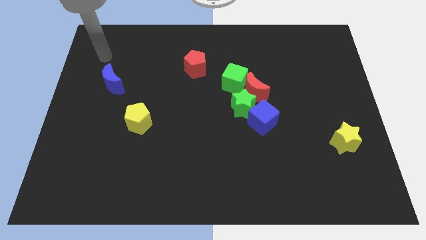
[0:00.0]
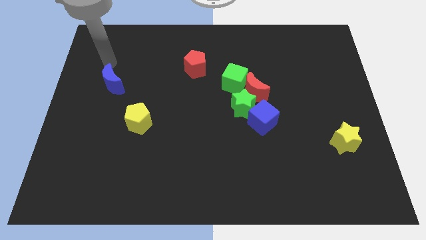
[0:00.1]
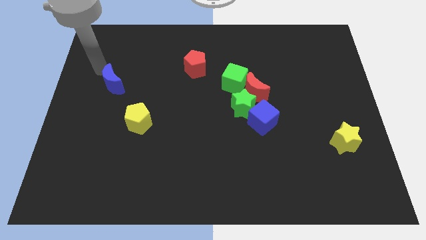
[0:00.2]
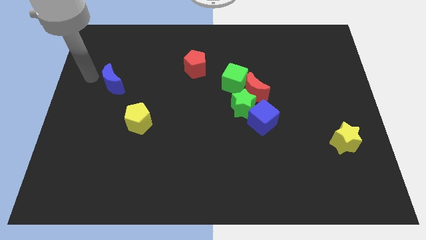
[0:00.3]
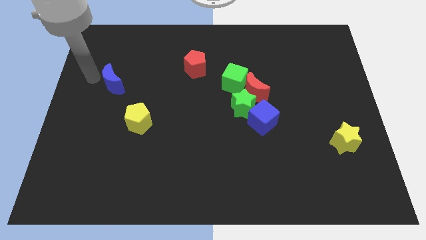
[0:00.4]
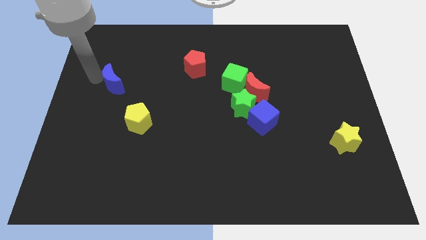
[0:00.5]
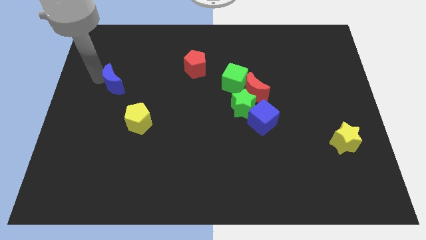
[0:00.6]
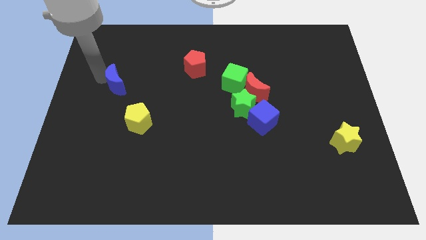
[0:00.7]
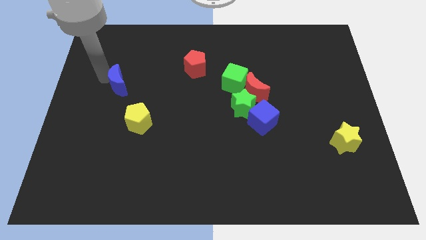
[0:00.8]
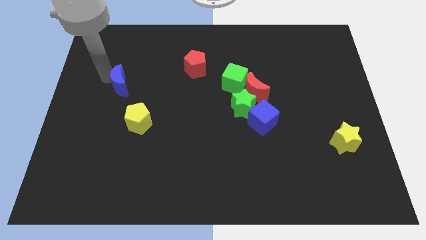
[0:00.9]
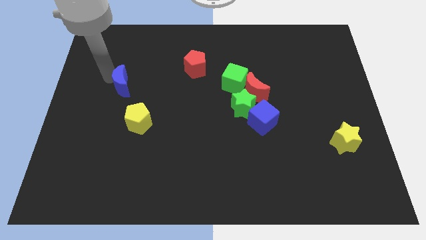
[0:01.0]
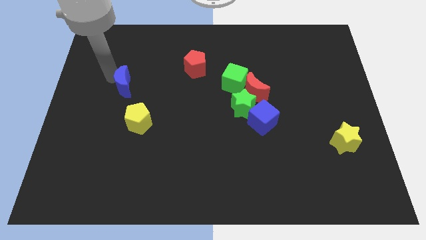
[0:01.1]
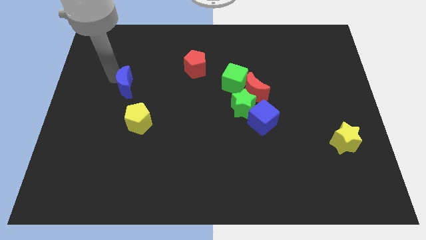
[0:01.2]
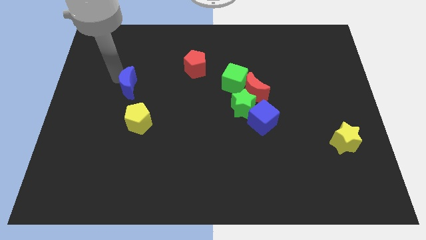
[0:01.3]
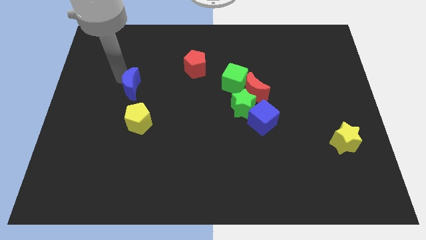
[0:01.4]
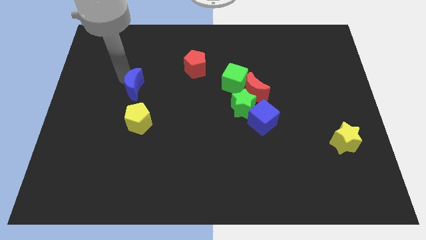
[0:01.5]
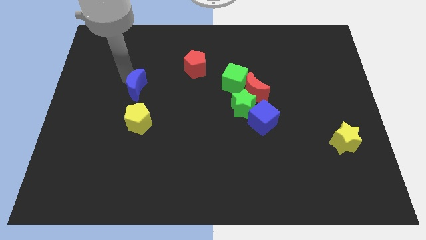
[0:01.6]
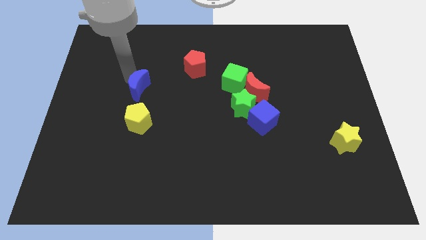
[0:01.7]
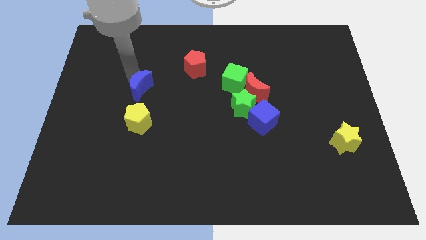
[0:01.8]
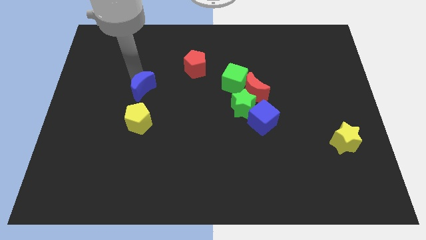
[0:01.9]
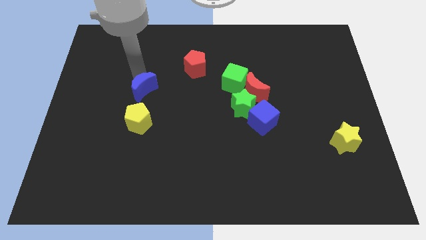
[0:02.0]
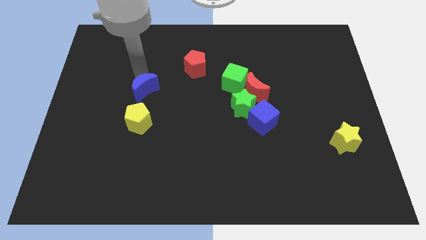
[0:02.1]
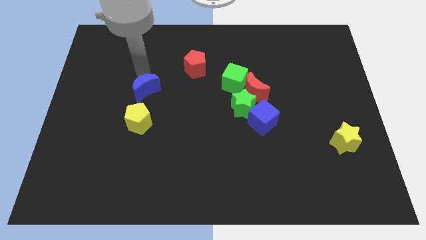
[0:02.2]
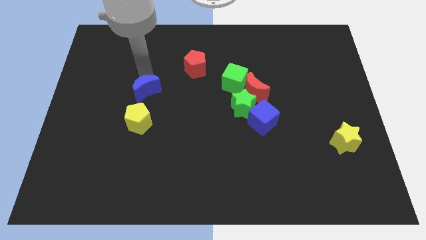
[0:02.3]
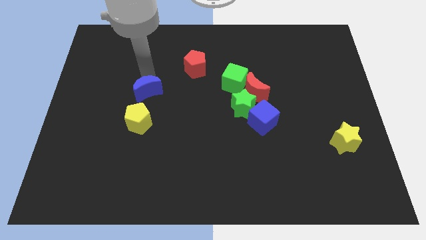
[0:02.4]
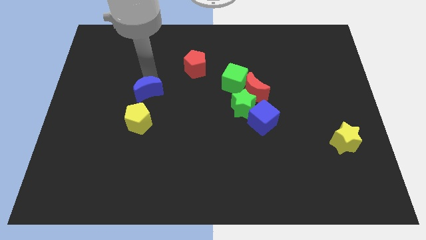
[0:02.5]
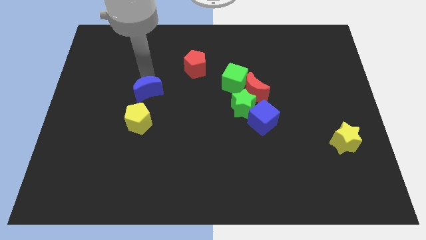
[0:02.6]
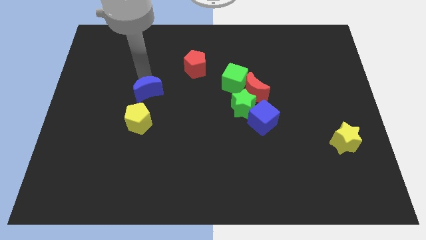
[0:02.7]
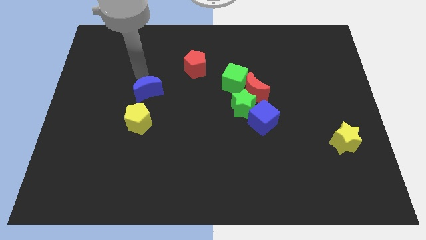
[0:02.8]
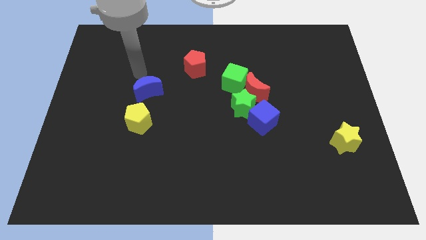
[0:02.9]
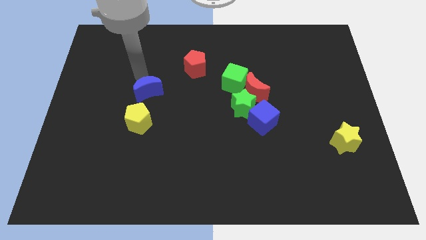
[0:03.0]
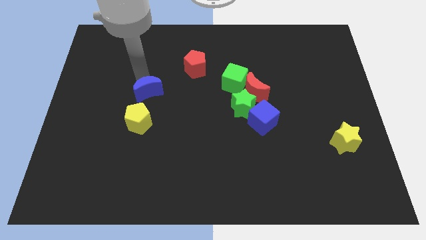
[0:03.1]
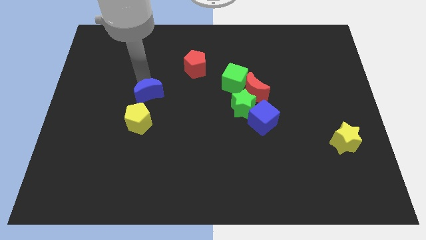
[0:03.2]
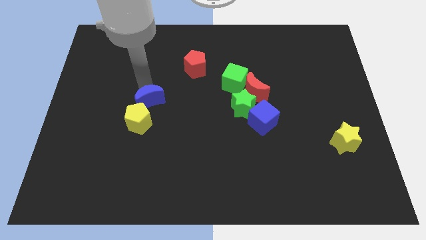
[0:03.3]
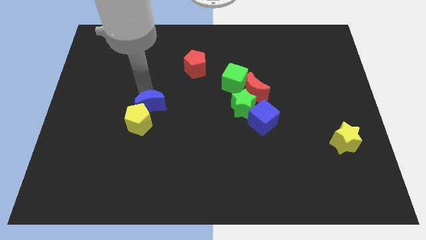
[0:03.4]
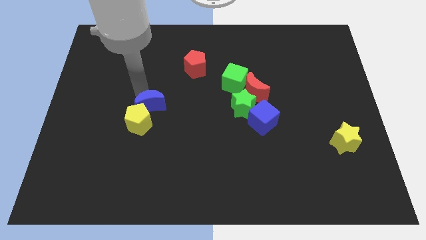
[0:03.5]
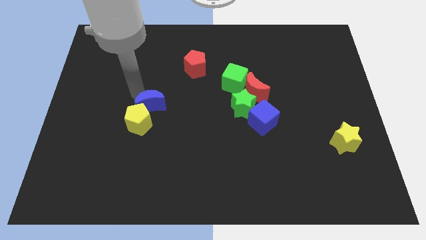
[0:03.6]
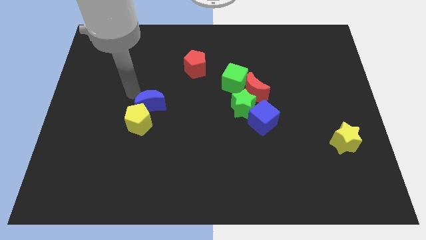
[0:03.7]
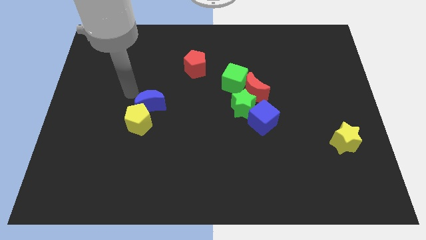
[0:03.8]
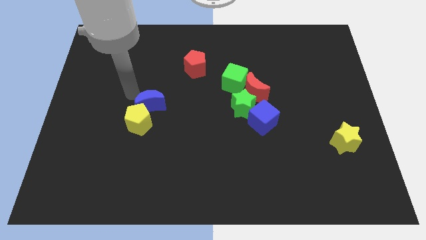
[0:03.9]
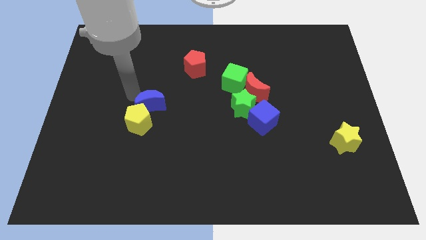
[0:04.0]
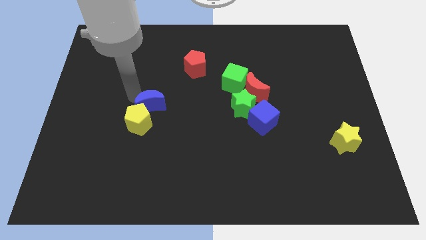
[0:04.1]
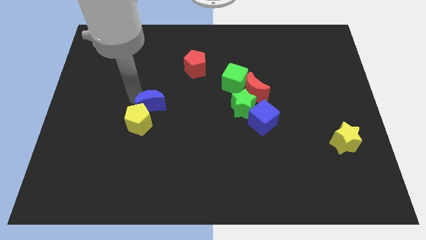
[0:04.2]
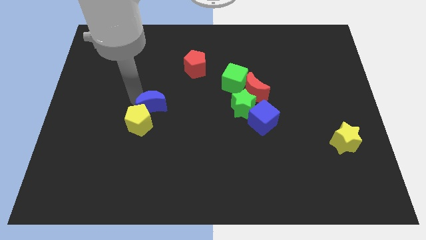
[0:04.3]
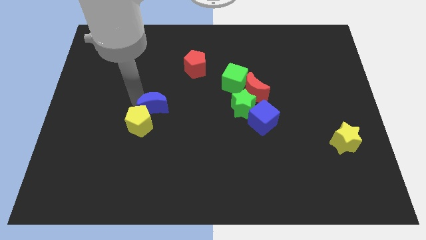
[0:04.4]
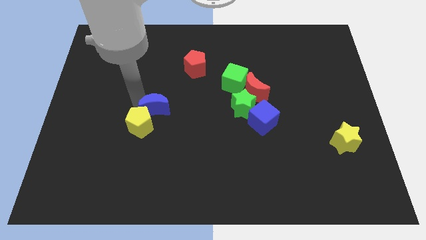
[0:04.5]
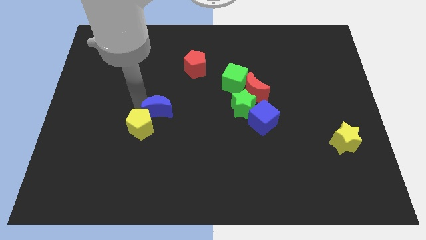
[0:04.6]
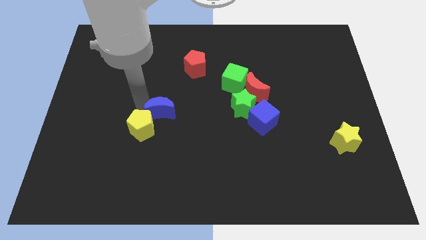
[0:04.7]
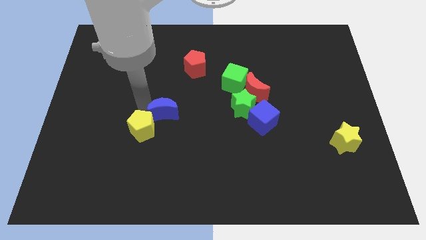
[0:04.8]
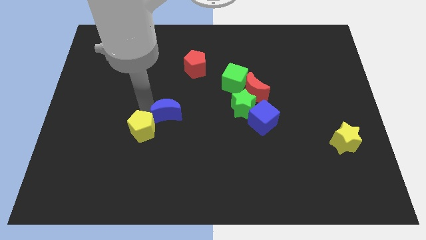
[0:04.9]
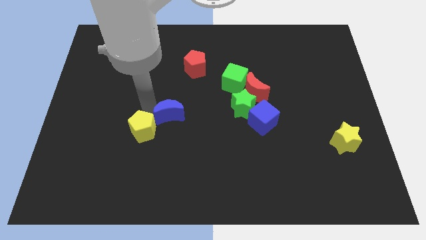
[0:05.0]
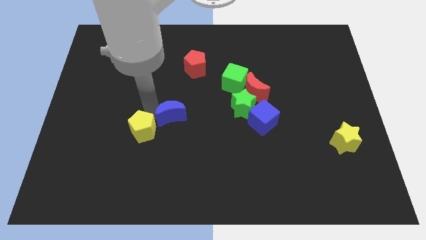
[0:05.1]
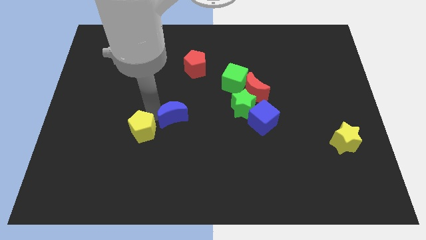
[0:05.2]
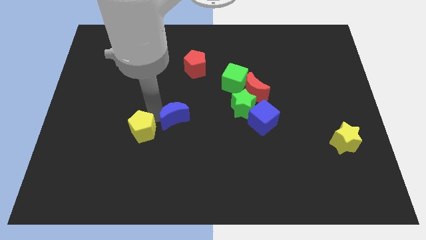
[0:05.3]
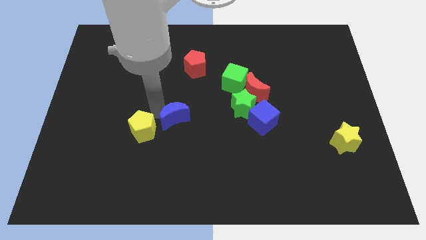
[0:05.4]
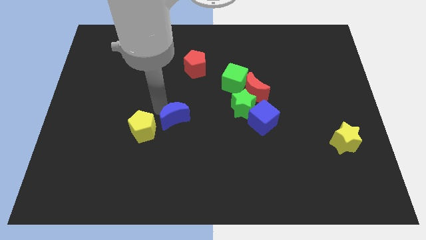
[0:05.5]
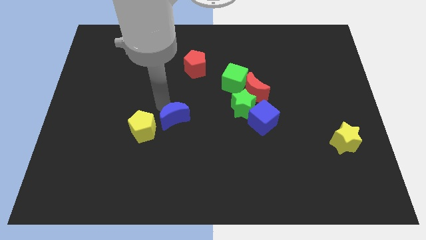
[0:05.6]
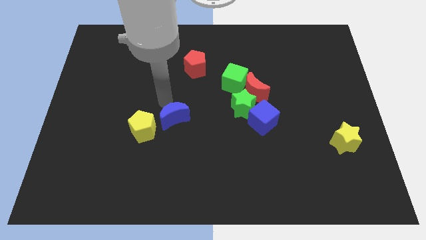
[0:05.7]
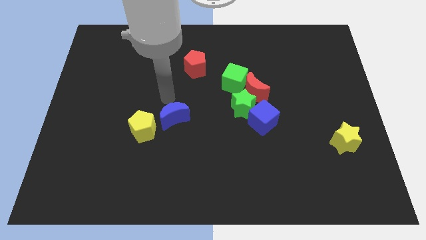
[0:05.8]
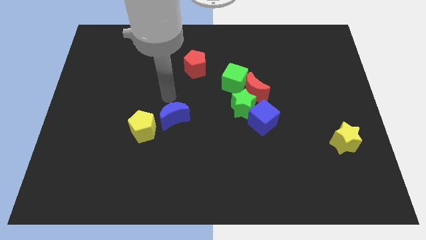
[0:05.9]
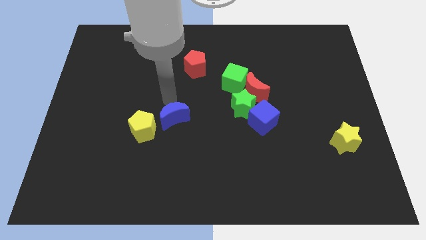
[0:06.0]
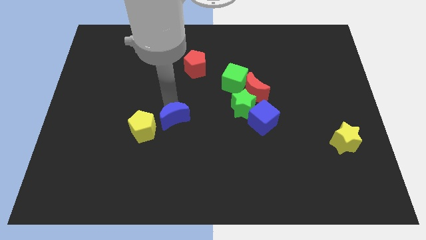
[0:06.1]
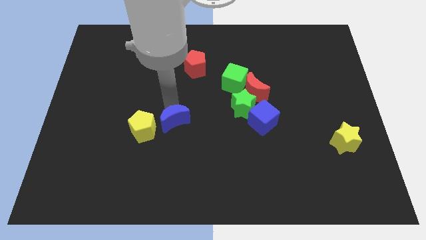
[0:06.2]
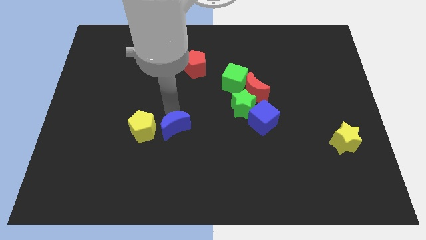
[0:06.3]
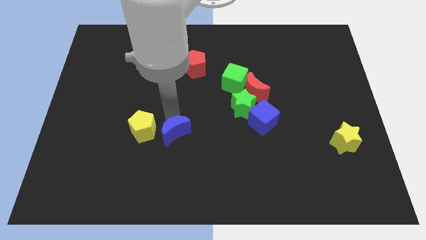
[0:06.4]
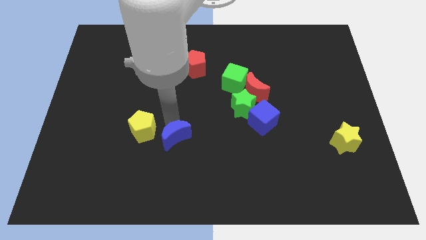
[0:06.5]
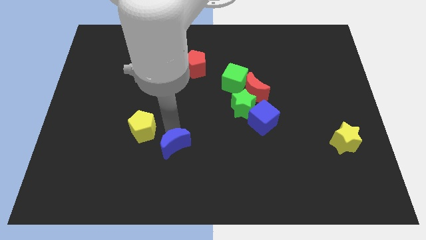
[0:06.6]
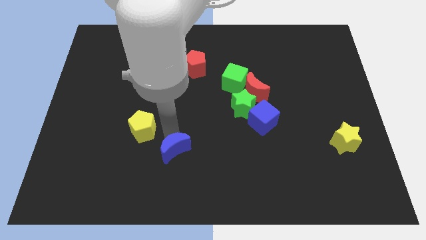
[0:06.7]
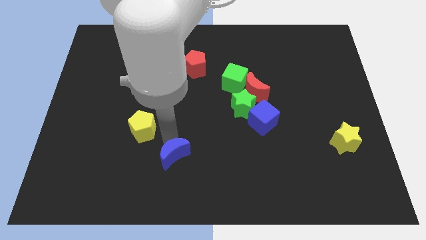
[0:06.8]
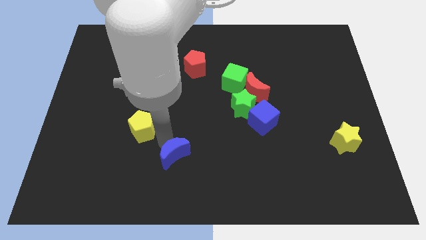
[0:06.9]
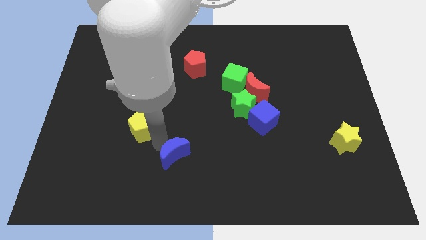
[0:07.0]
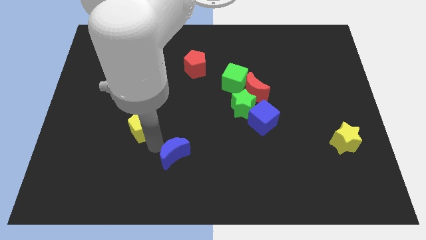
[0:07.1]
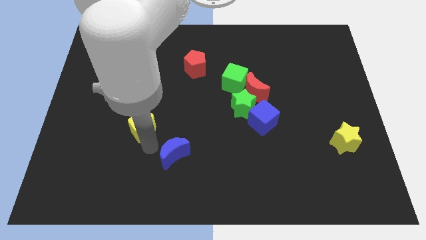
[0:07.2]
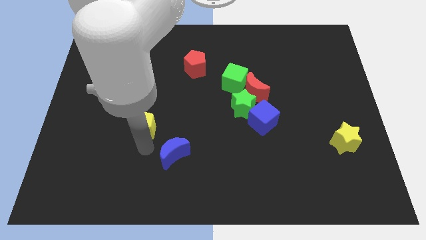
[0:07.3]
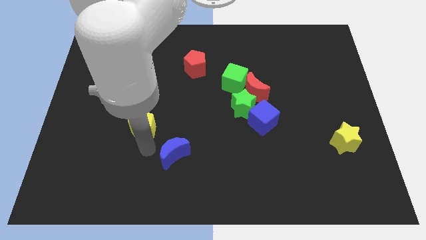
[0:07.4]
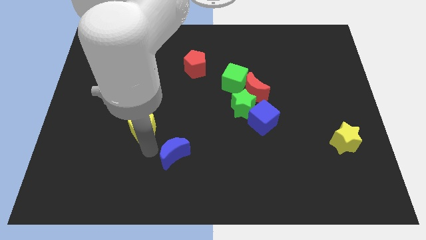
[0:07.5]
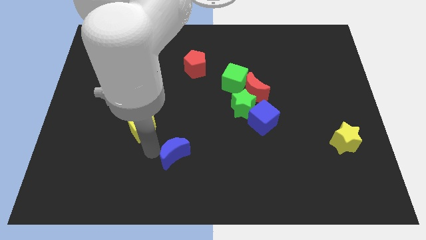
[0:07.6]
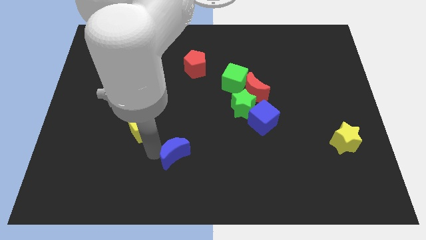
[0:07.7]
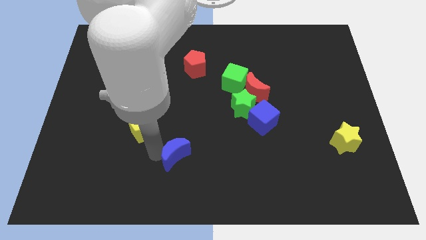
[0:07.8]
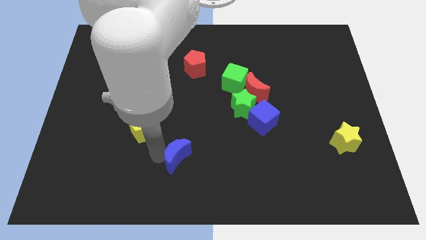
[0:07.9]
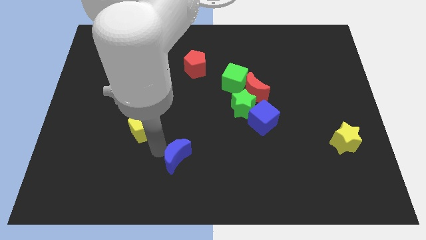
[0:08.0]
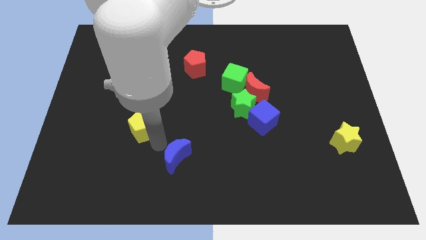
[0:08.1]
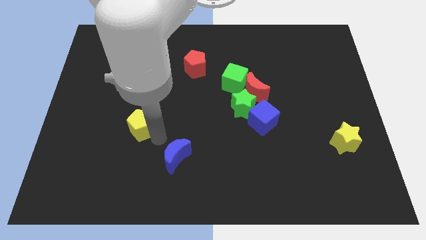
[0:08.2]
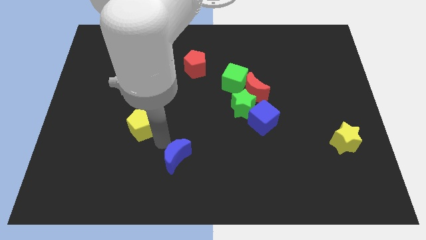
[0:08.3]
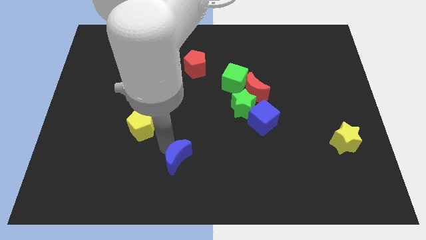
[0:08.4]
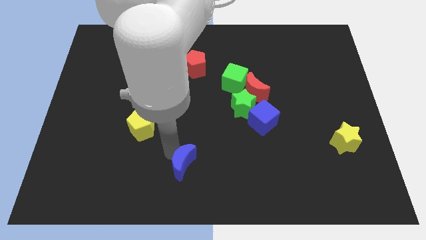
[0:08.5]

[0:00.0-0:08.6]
move the blue moon to the bottom
